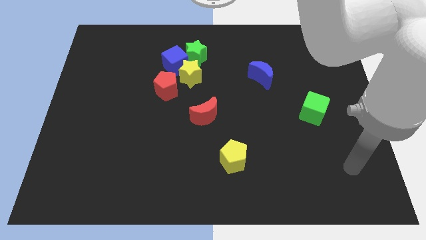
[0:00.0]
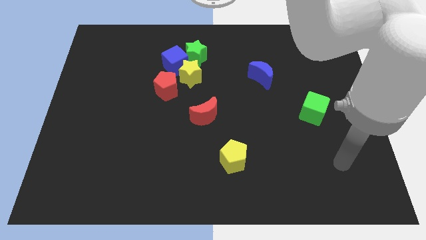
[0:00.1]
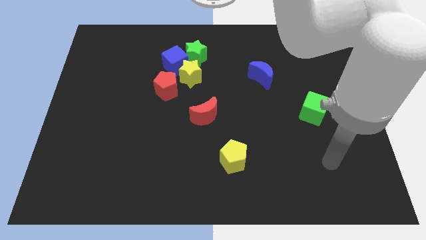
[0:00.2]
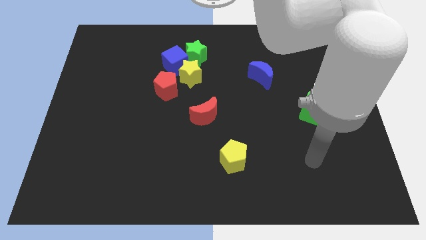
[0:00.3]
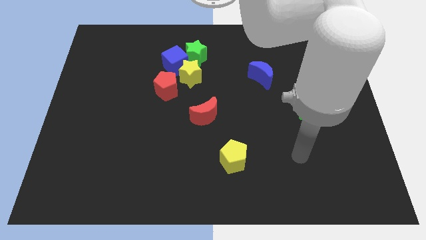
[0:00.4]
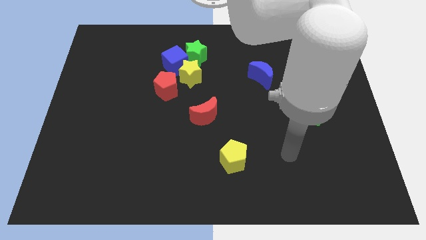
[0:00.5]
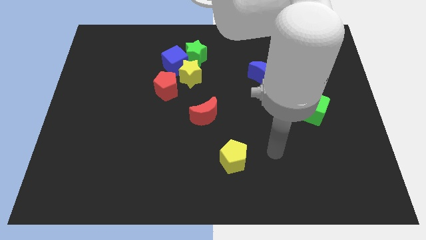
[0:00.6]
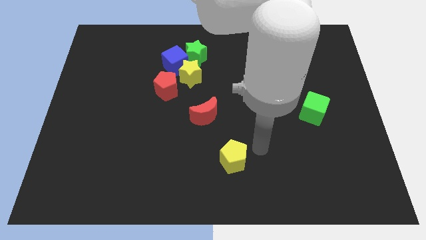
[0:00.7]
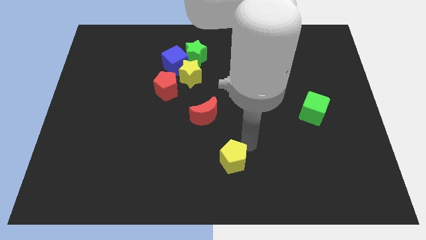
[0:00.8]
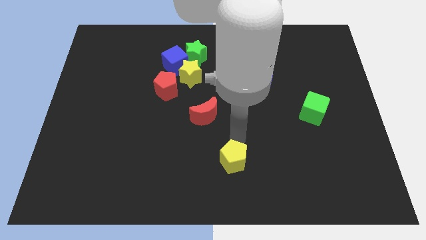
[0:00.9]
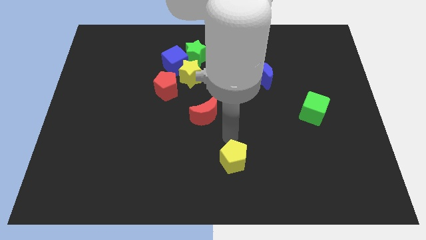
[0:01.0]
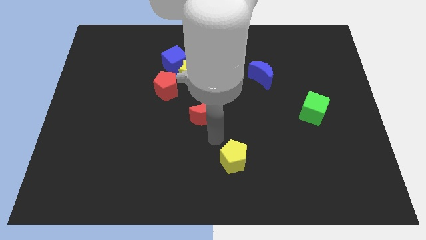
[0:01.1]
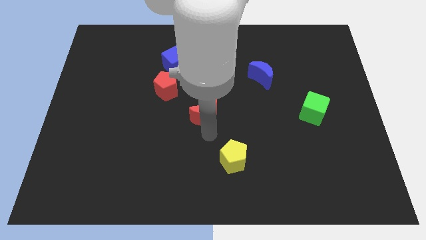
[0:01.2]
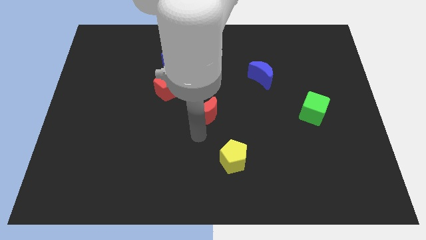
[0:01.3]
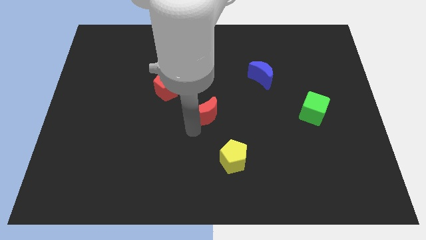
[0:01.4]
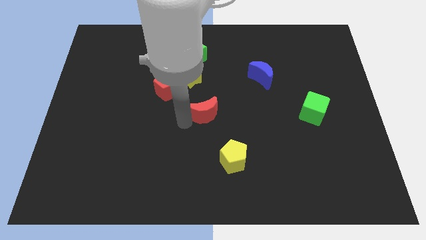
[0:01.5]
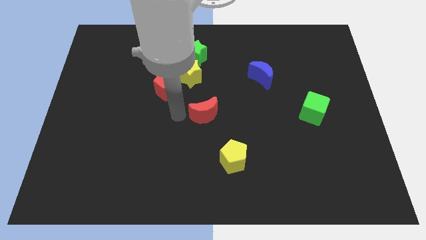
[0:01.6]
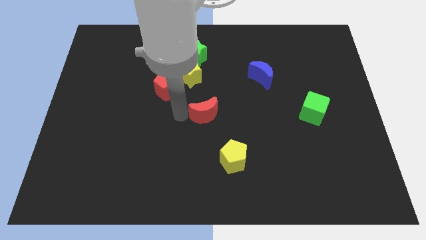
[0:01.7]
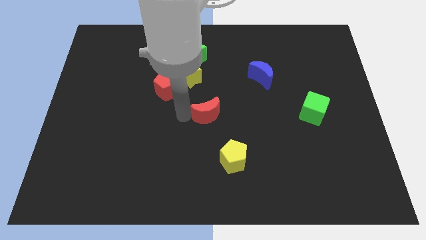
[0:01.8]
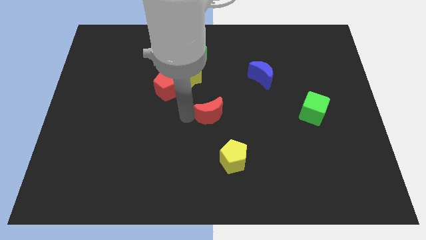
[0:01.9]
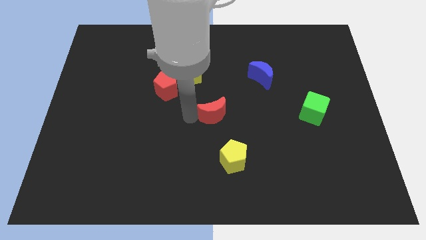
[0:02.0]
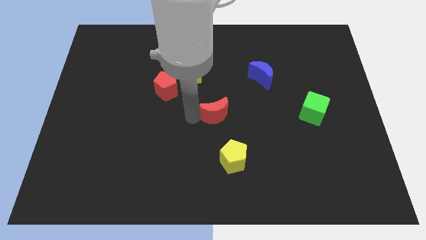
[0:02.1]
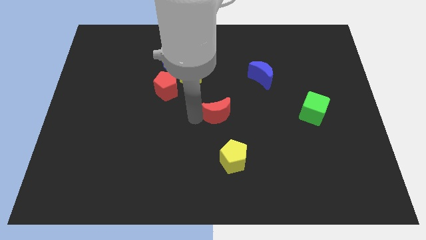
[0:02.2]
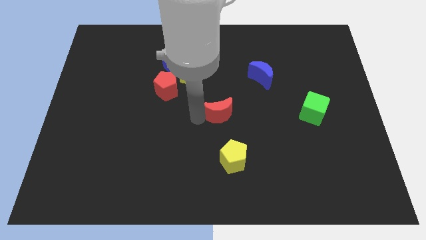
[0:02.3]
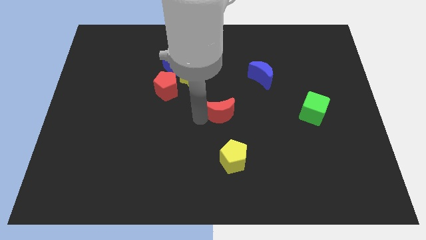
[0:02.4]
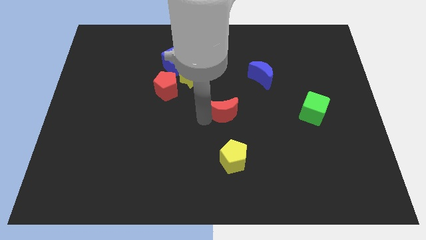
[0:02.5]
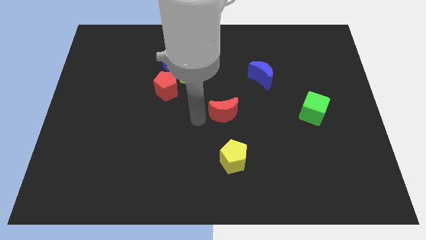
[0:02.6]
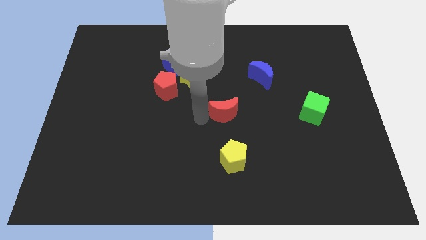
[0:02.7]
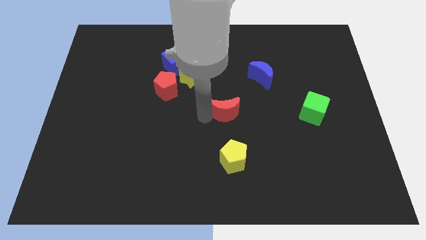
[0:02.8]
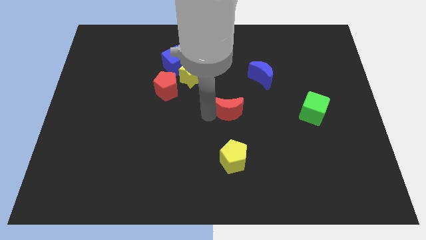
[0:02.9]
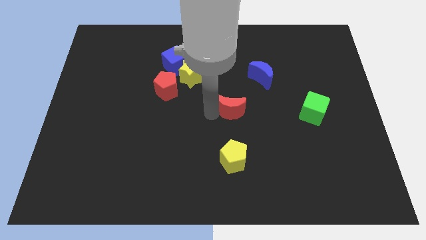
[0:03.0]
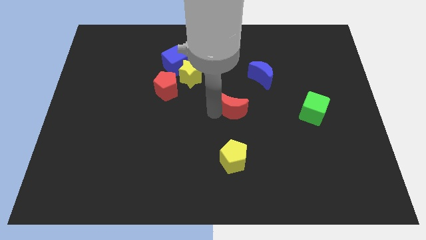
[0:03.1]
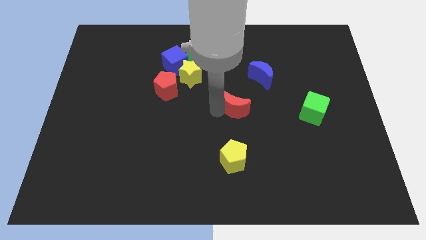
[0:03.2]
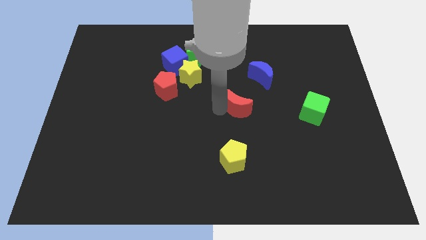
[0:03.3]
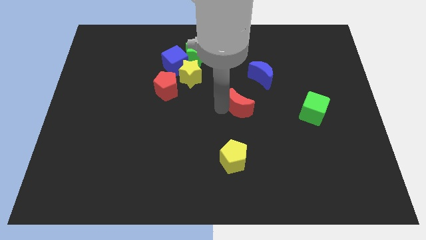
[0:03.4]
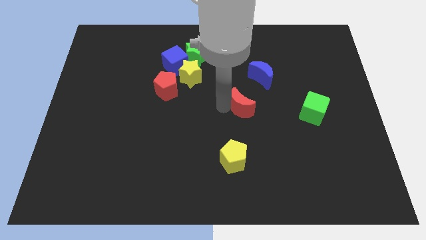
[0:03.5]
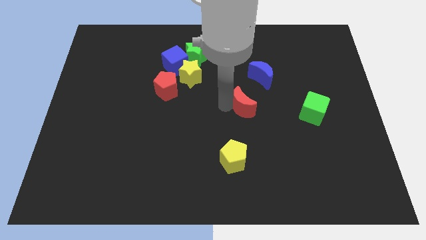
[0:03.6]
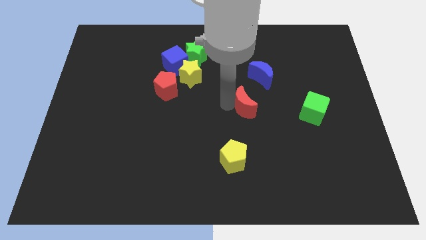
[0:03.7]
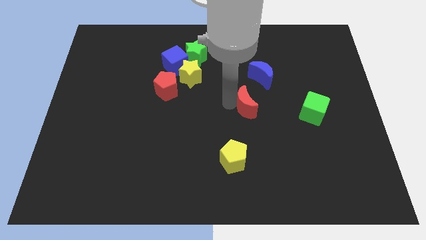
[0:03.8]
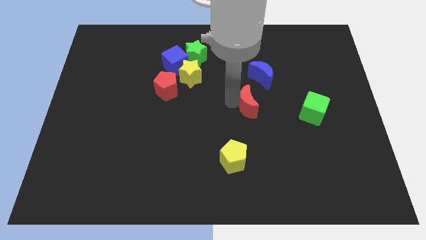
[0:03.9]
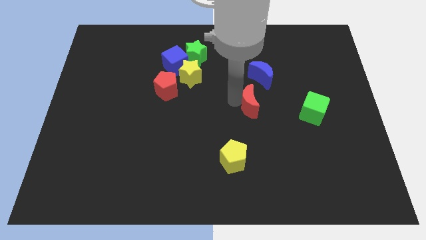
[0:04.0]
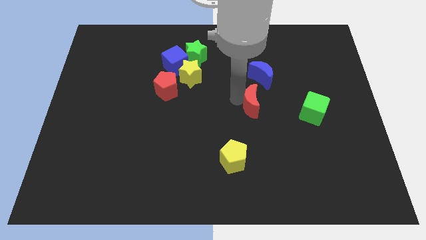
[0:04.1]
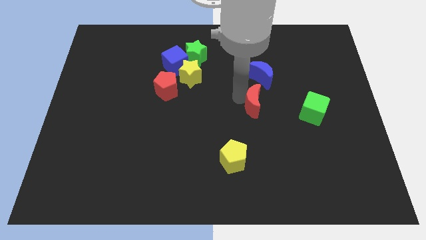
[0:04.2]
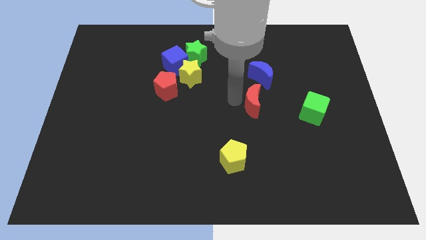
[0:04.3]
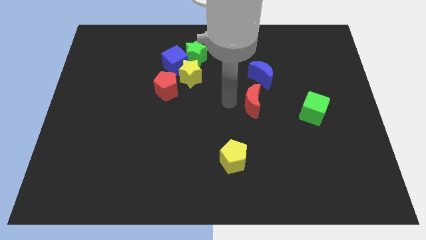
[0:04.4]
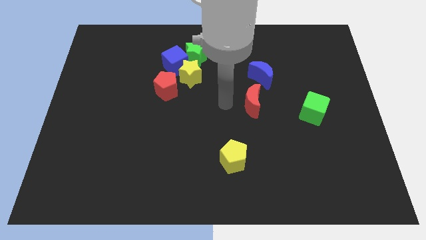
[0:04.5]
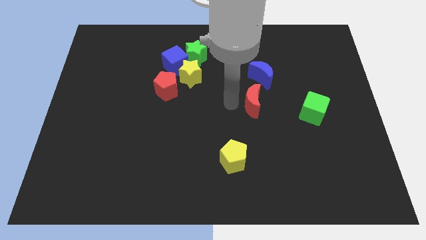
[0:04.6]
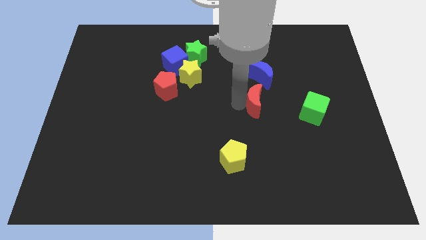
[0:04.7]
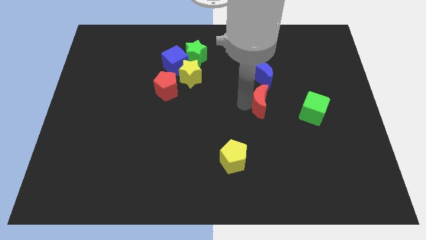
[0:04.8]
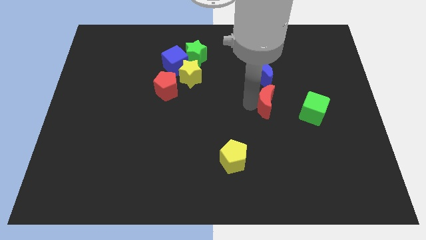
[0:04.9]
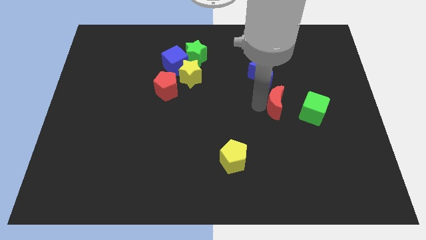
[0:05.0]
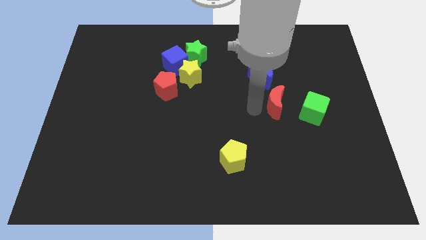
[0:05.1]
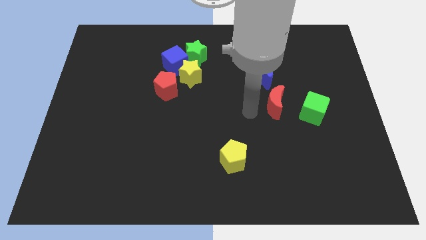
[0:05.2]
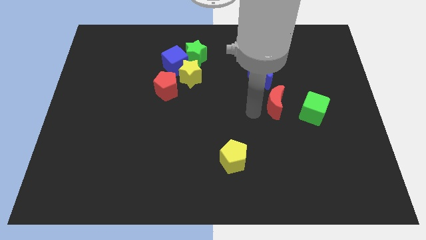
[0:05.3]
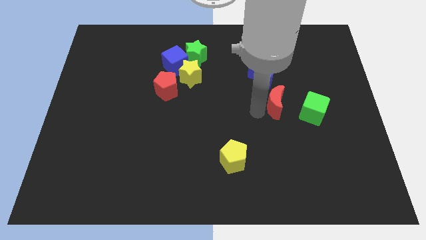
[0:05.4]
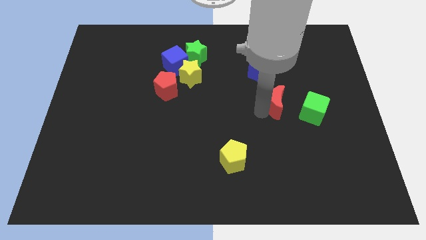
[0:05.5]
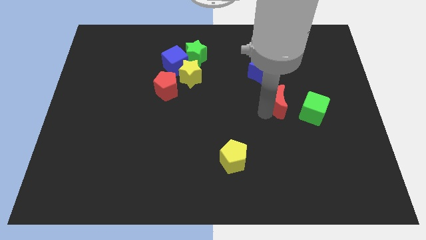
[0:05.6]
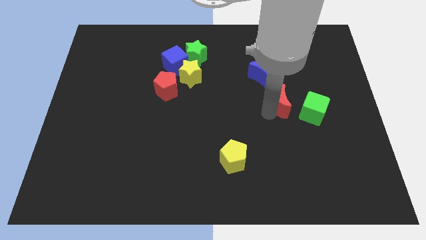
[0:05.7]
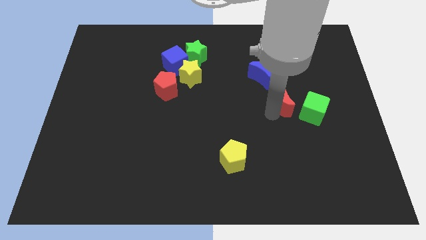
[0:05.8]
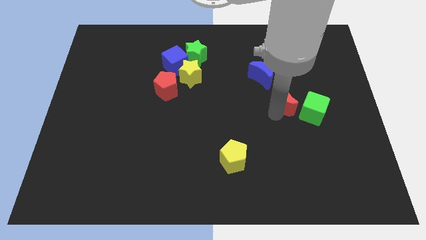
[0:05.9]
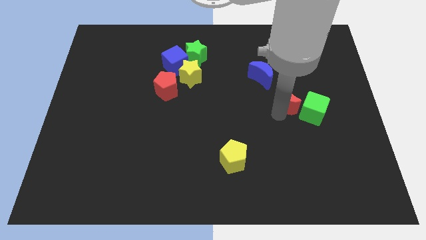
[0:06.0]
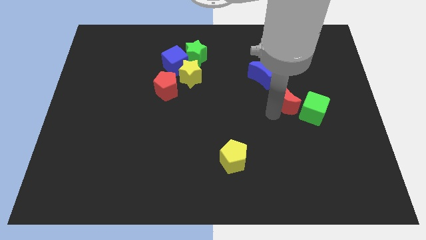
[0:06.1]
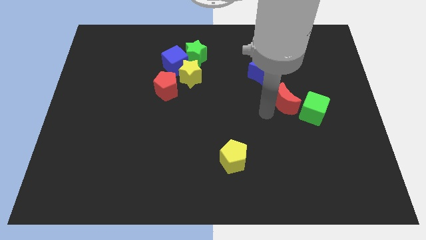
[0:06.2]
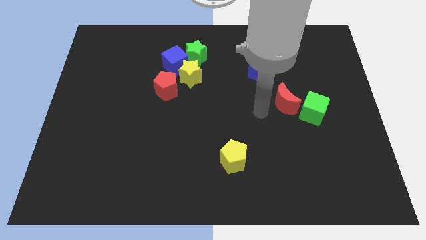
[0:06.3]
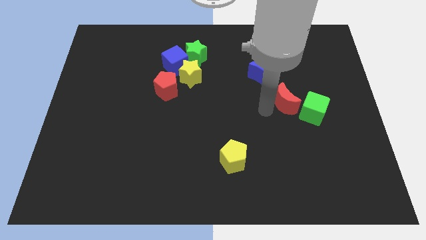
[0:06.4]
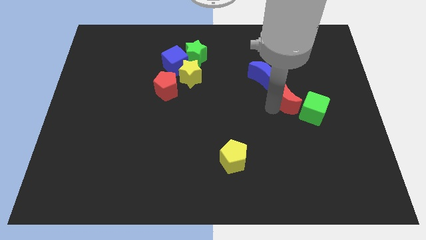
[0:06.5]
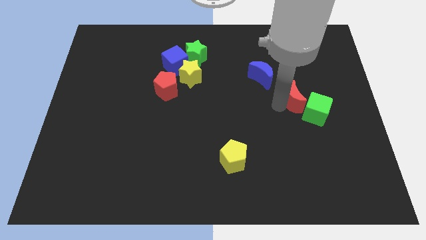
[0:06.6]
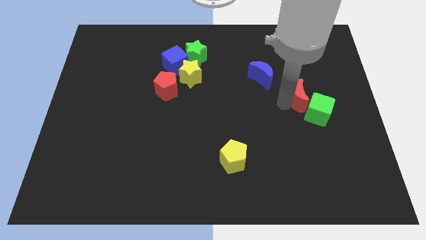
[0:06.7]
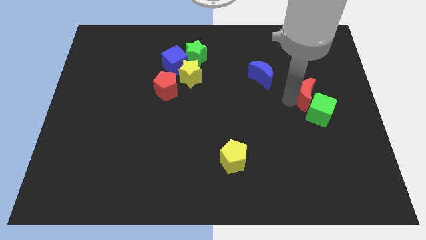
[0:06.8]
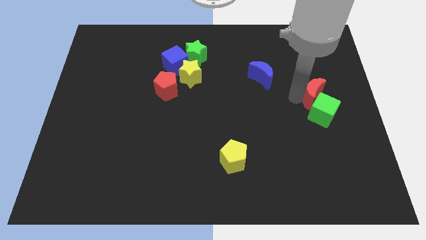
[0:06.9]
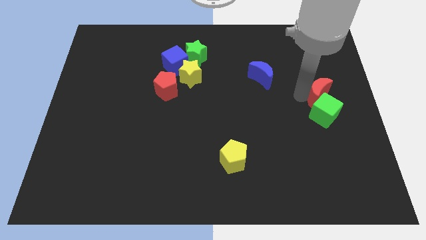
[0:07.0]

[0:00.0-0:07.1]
move the red moon to the right side
